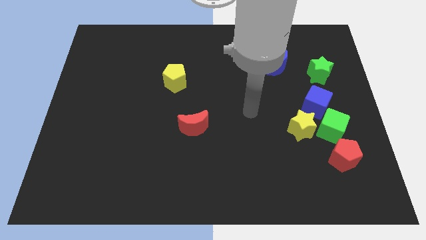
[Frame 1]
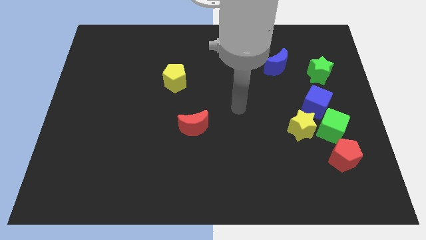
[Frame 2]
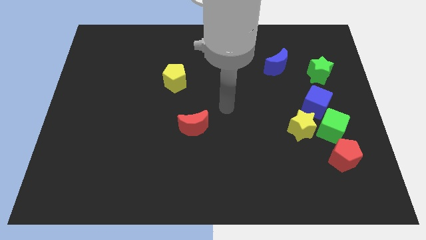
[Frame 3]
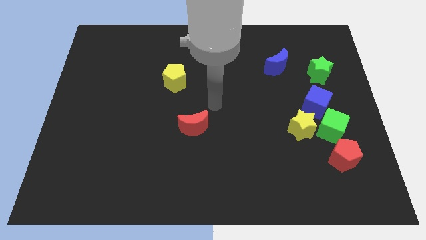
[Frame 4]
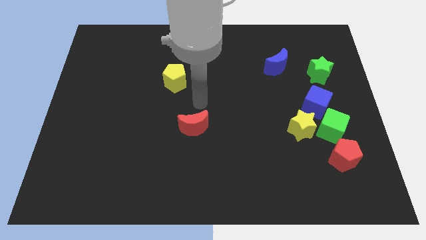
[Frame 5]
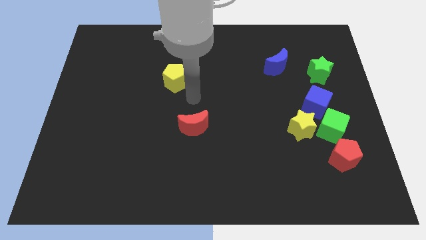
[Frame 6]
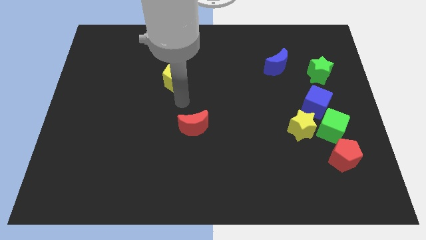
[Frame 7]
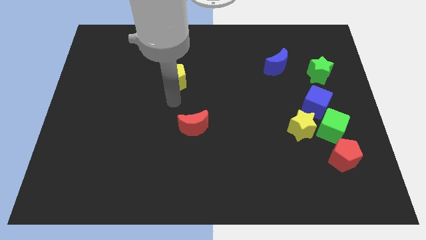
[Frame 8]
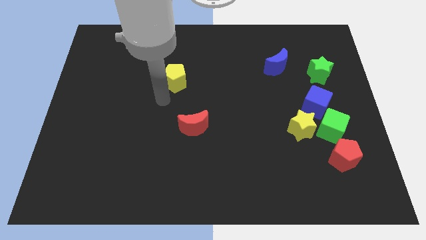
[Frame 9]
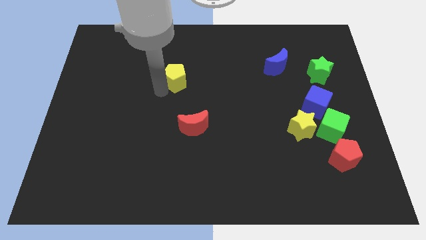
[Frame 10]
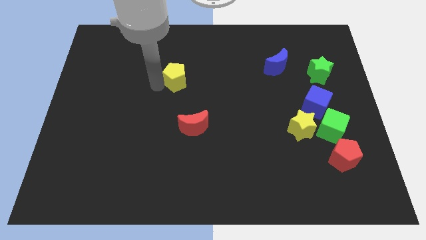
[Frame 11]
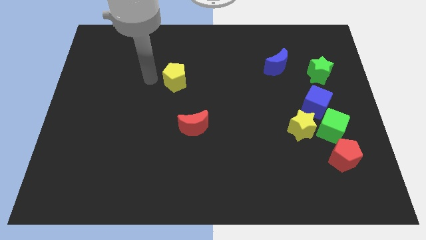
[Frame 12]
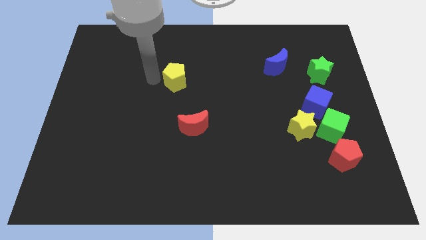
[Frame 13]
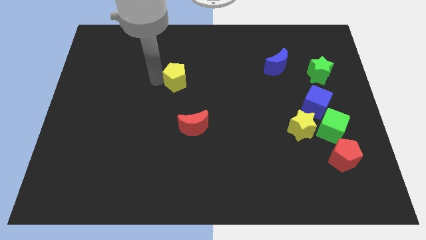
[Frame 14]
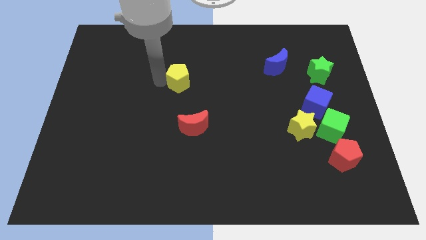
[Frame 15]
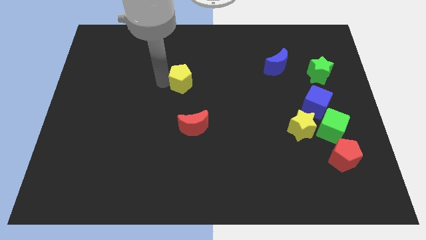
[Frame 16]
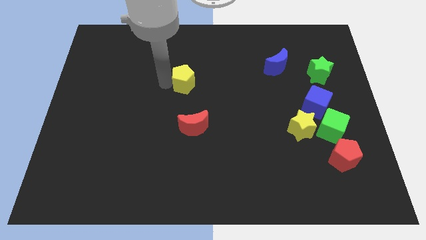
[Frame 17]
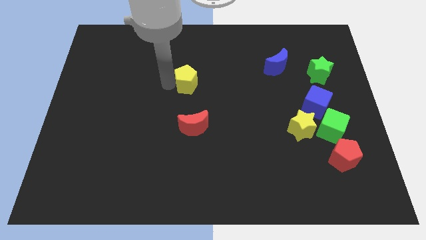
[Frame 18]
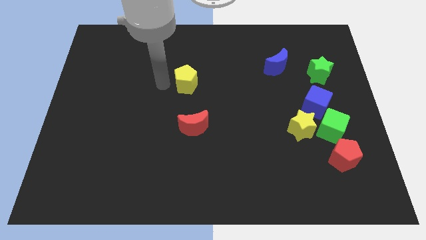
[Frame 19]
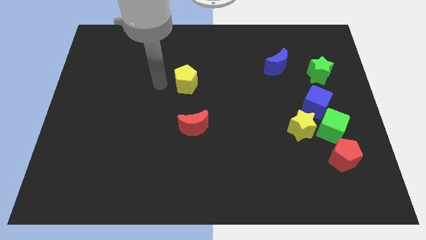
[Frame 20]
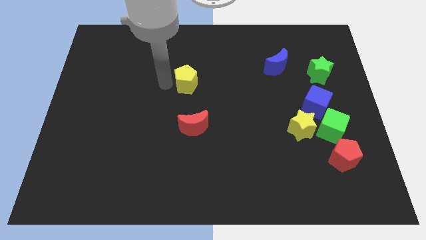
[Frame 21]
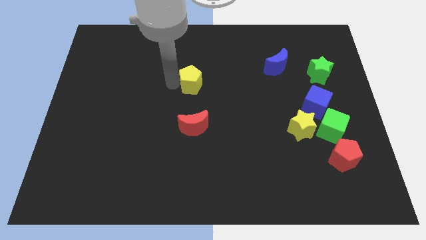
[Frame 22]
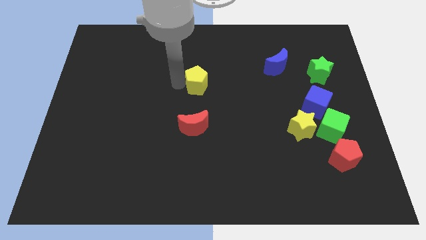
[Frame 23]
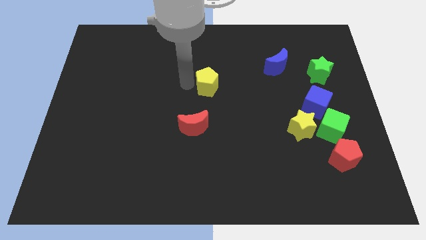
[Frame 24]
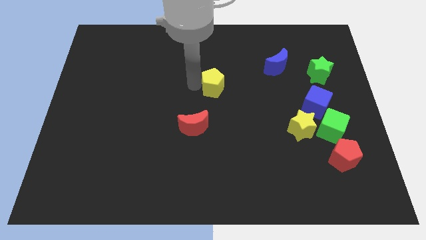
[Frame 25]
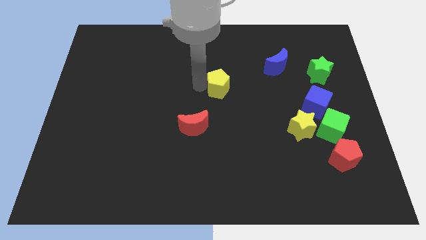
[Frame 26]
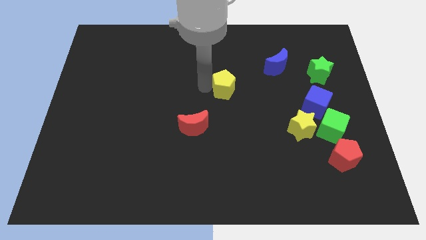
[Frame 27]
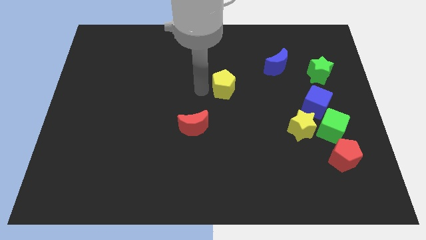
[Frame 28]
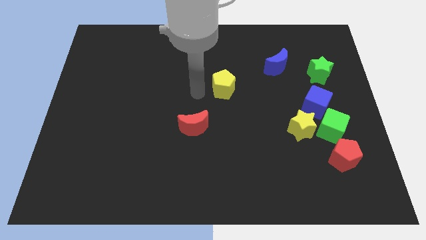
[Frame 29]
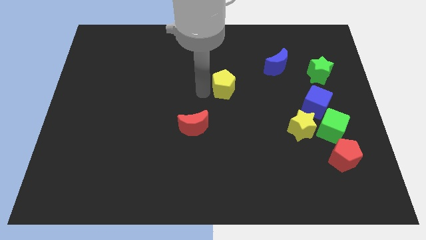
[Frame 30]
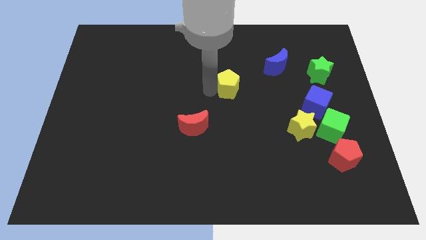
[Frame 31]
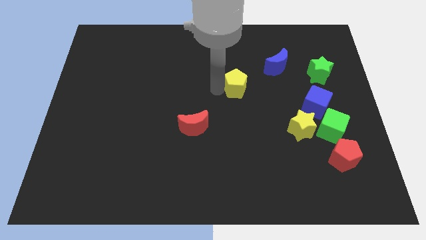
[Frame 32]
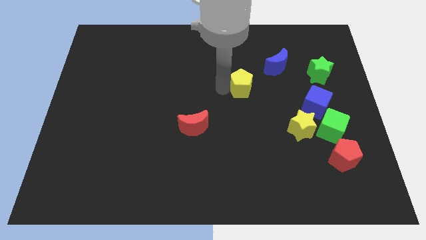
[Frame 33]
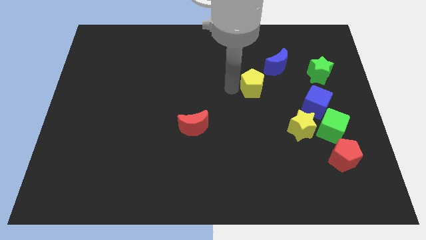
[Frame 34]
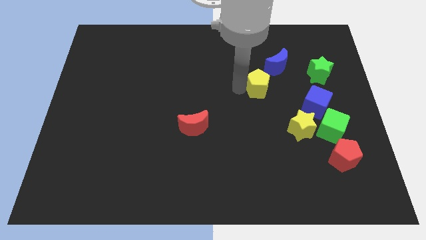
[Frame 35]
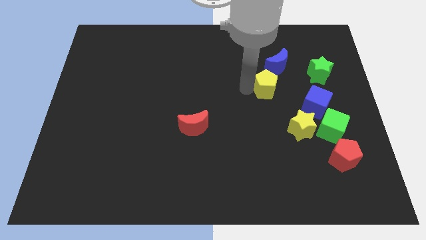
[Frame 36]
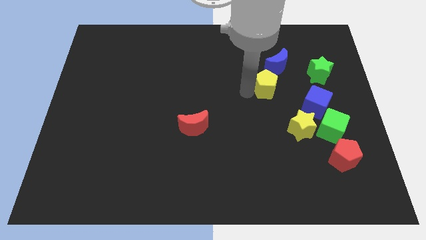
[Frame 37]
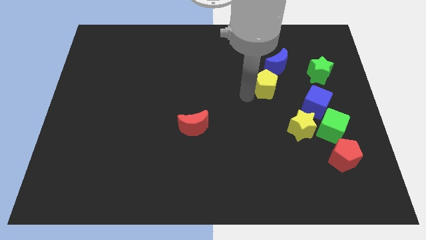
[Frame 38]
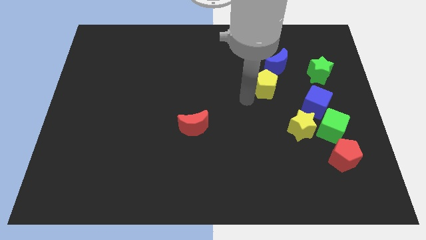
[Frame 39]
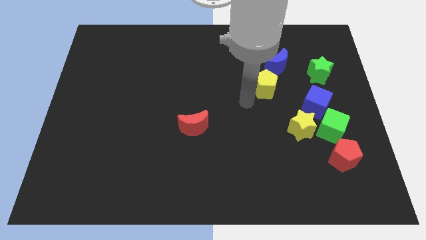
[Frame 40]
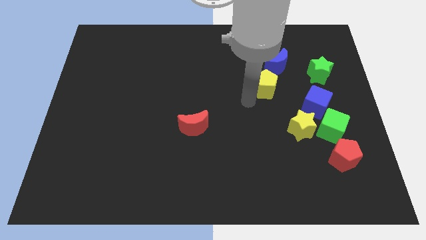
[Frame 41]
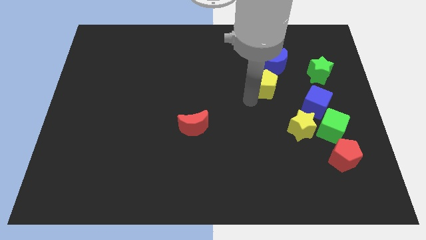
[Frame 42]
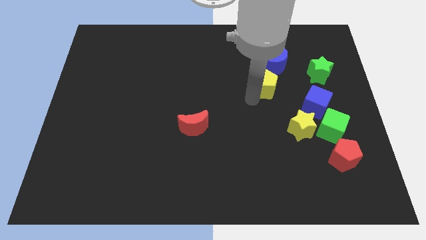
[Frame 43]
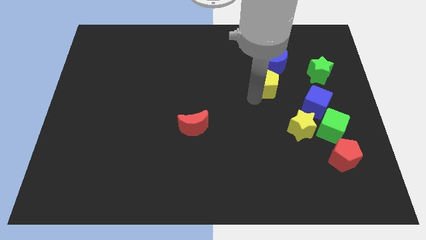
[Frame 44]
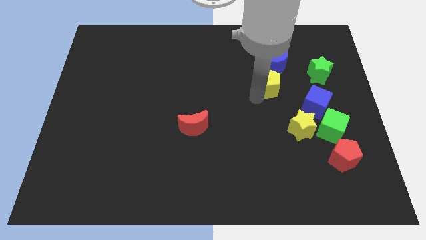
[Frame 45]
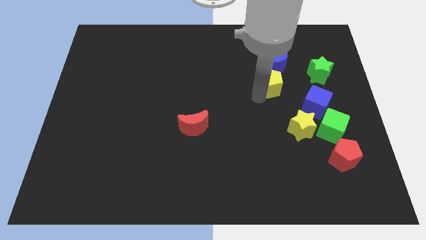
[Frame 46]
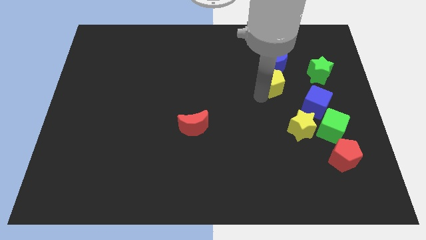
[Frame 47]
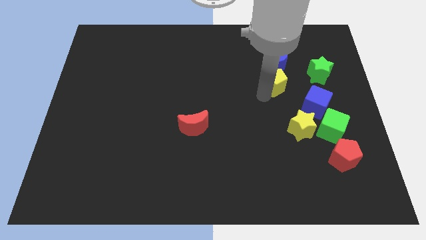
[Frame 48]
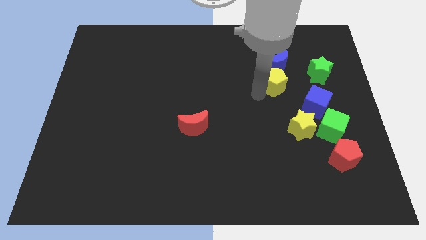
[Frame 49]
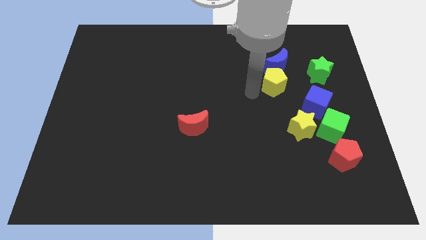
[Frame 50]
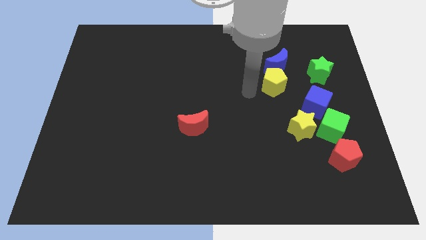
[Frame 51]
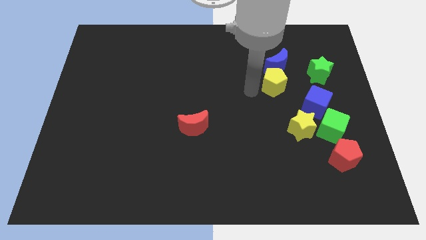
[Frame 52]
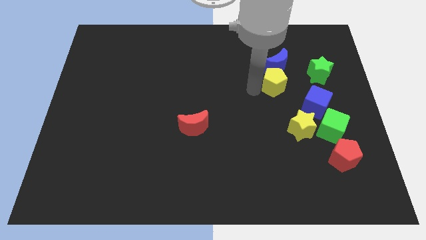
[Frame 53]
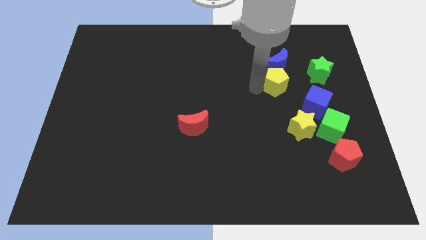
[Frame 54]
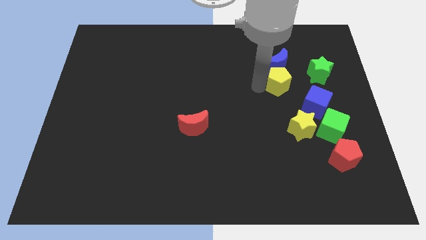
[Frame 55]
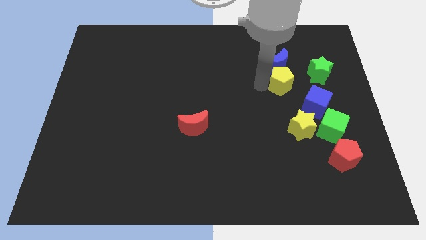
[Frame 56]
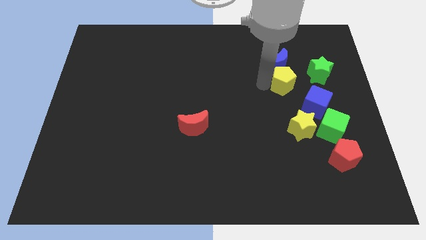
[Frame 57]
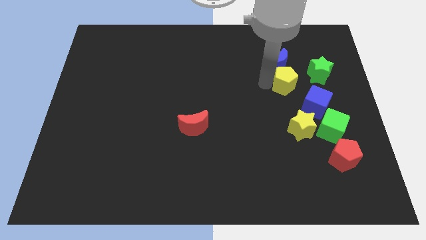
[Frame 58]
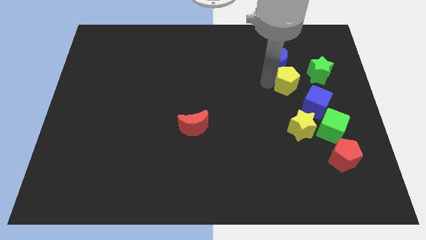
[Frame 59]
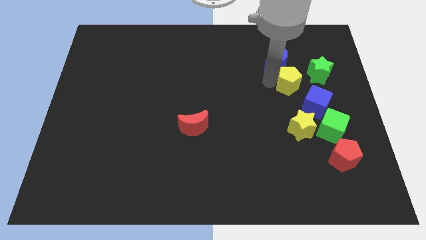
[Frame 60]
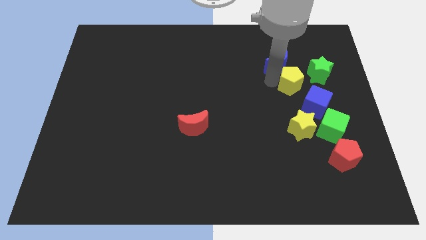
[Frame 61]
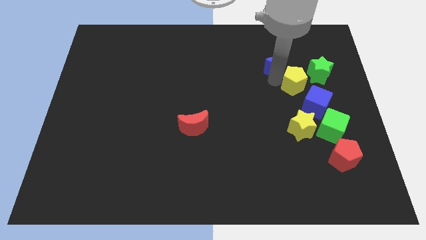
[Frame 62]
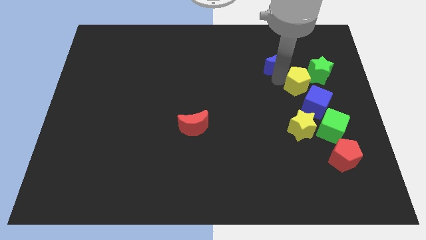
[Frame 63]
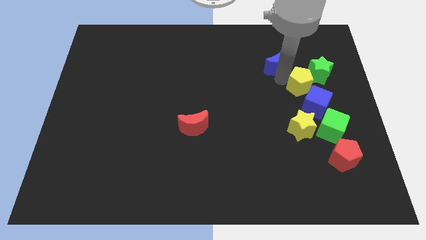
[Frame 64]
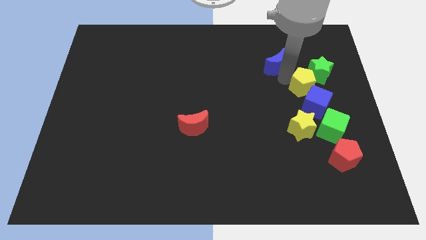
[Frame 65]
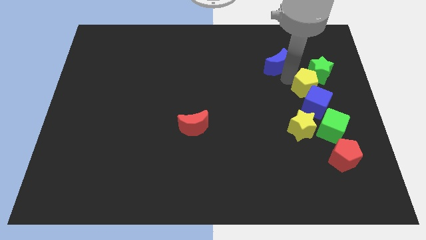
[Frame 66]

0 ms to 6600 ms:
put the yellow pentagon next to the green star
